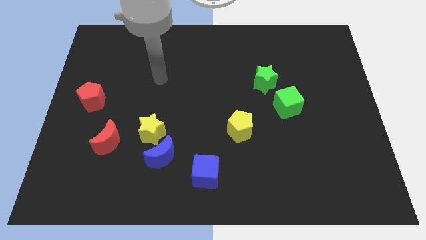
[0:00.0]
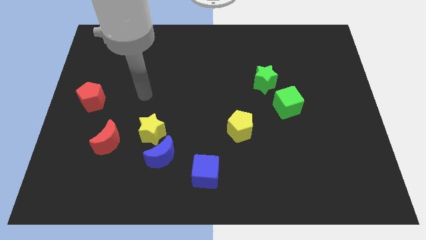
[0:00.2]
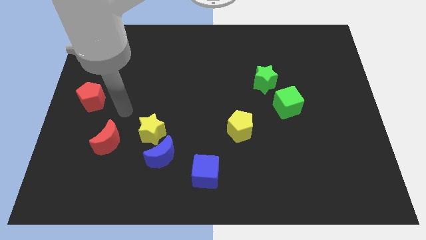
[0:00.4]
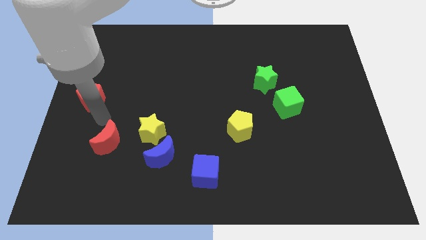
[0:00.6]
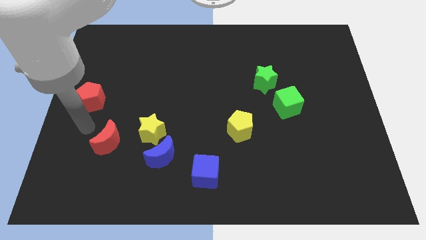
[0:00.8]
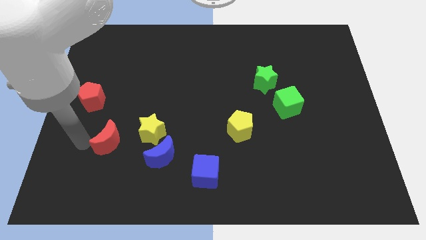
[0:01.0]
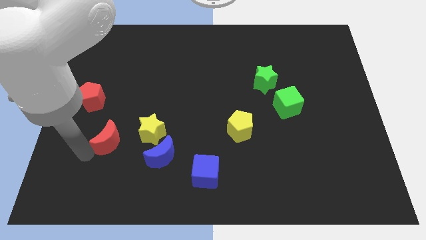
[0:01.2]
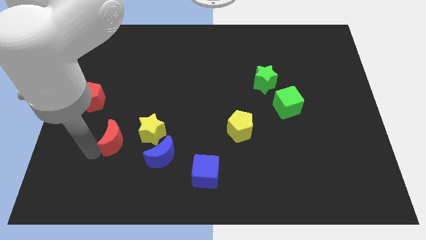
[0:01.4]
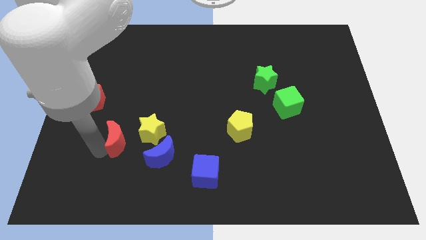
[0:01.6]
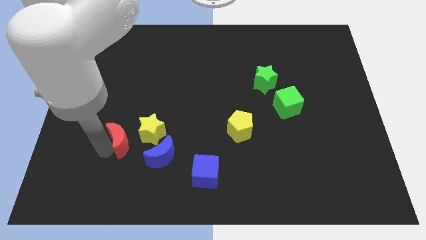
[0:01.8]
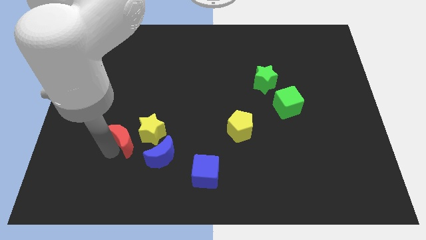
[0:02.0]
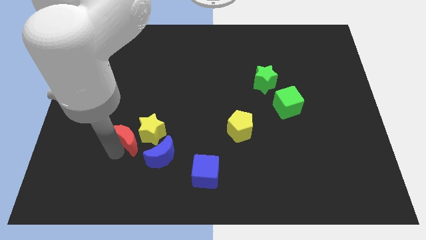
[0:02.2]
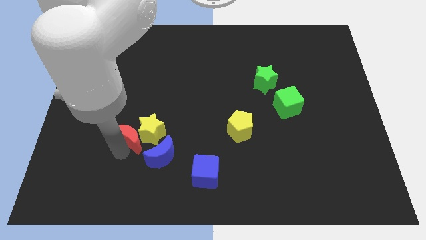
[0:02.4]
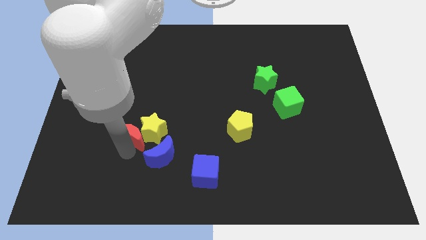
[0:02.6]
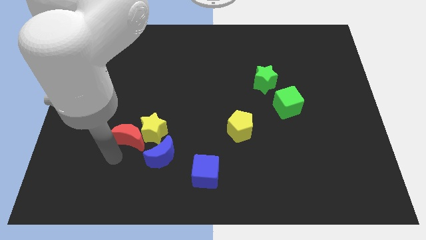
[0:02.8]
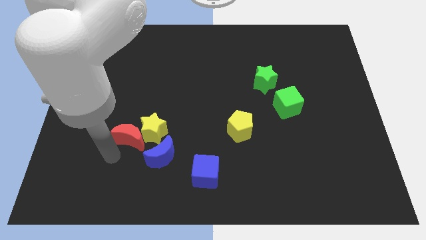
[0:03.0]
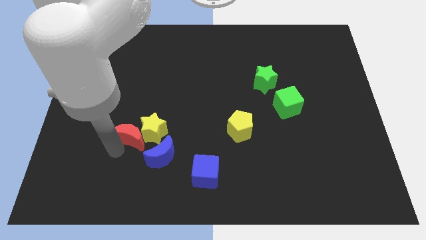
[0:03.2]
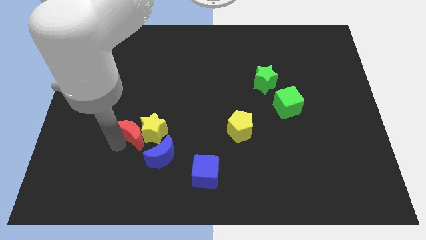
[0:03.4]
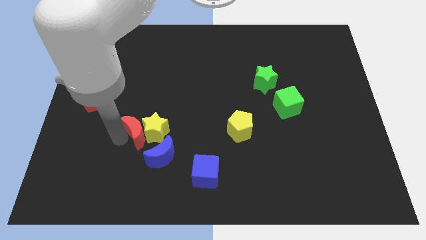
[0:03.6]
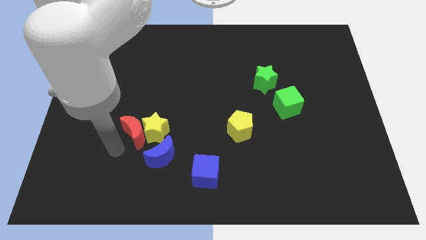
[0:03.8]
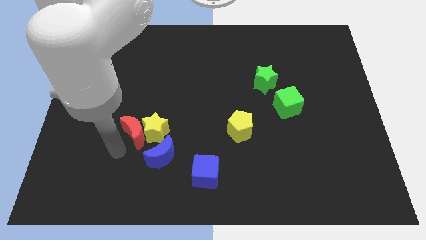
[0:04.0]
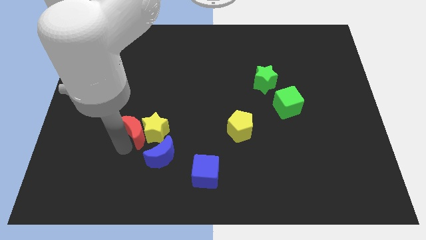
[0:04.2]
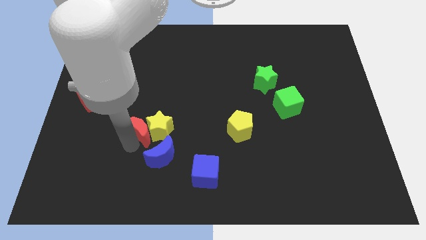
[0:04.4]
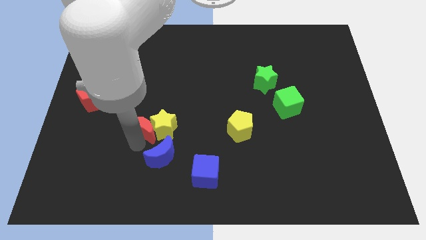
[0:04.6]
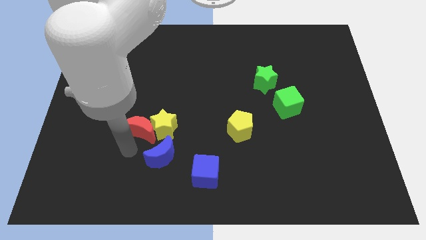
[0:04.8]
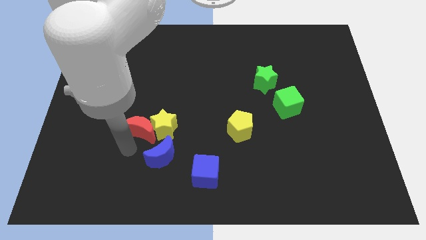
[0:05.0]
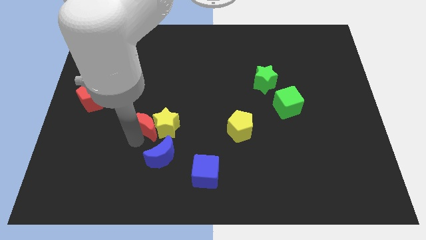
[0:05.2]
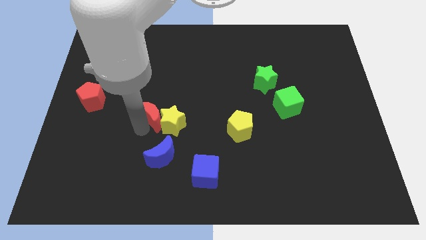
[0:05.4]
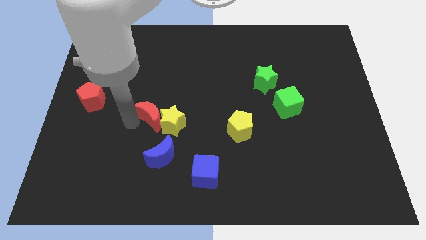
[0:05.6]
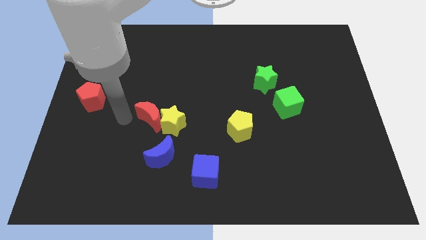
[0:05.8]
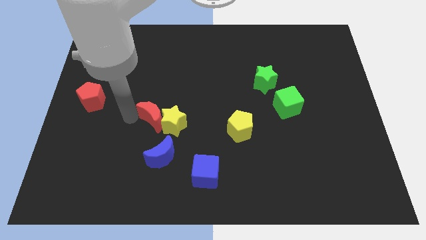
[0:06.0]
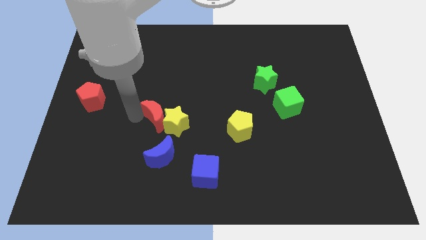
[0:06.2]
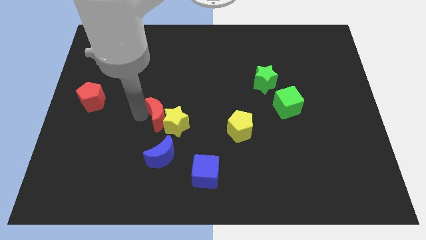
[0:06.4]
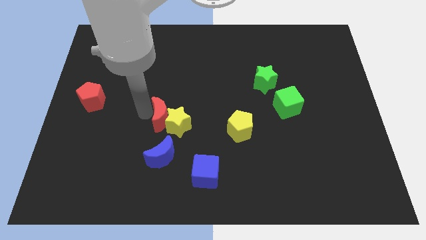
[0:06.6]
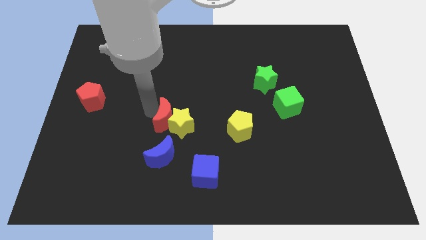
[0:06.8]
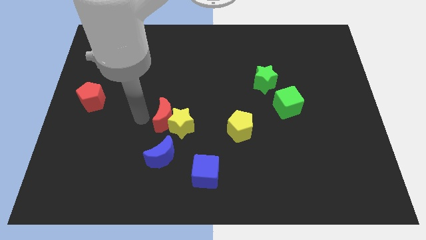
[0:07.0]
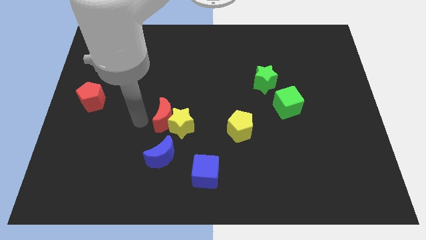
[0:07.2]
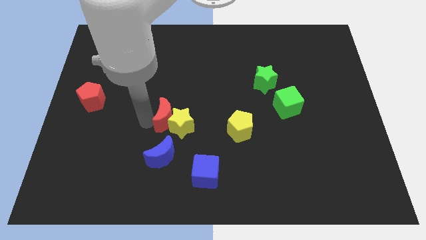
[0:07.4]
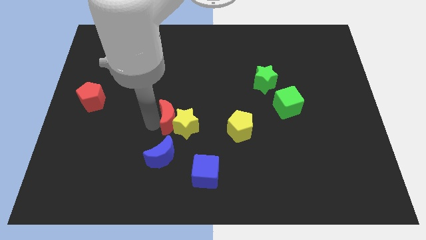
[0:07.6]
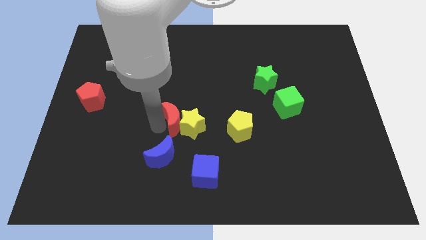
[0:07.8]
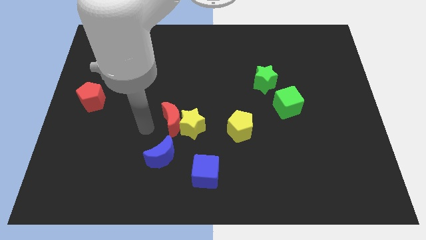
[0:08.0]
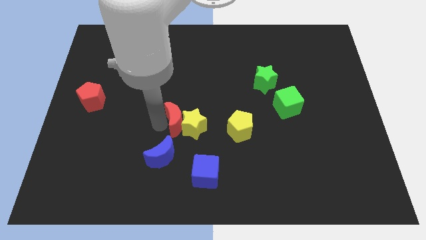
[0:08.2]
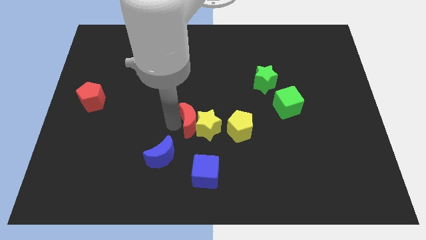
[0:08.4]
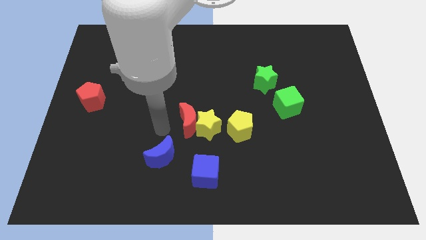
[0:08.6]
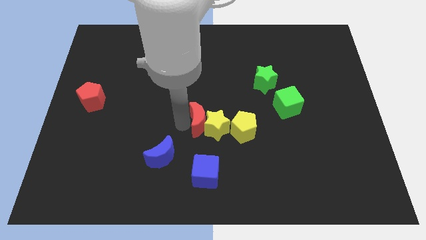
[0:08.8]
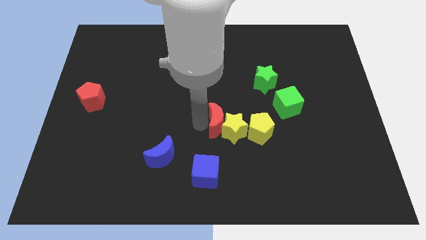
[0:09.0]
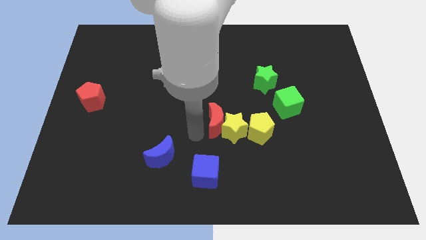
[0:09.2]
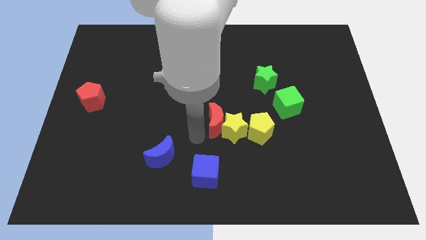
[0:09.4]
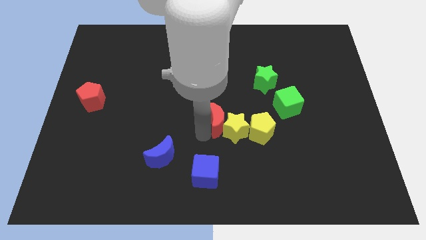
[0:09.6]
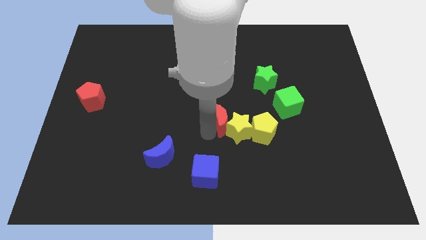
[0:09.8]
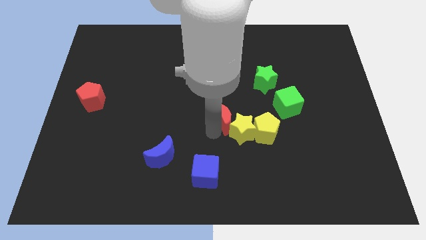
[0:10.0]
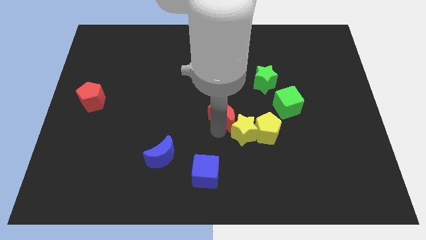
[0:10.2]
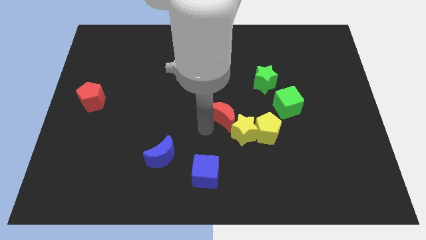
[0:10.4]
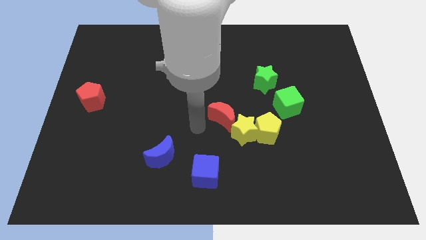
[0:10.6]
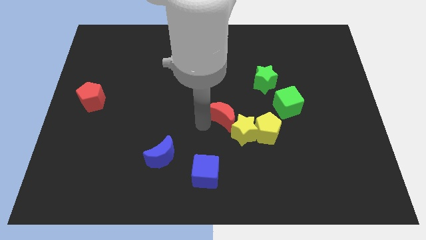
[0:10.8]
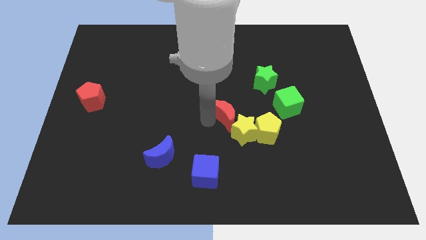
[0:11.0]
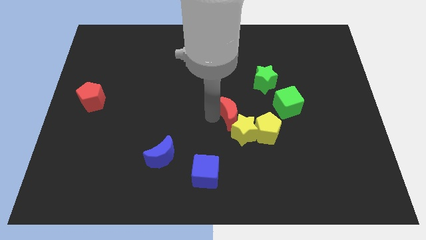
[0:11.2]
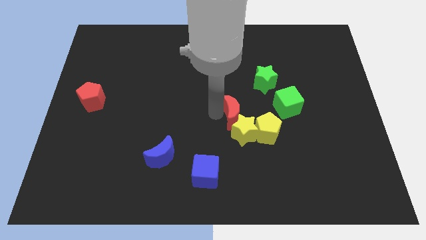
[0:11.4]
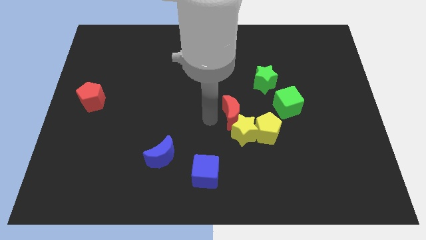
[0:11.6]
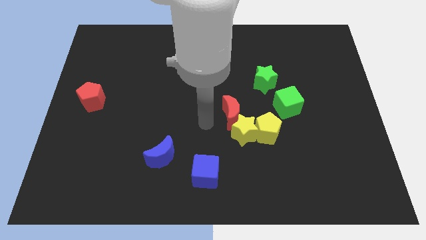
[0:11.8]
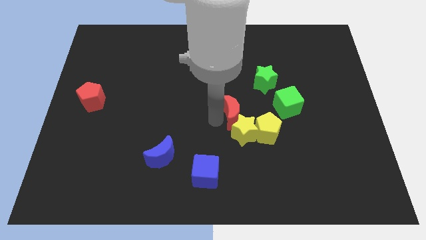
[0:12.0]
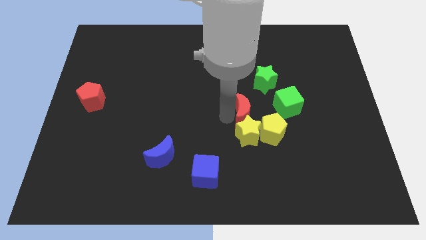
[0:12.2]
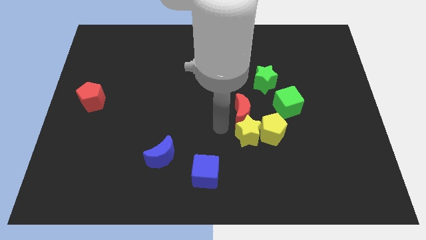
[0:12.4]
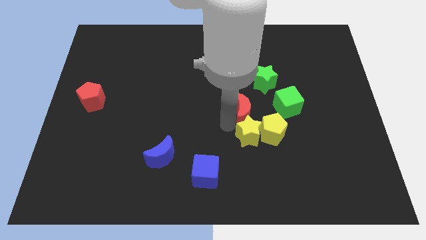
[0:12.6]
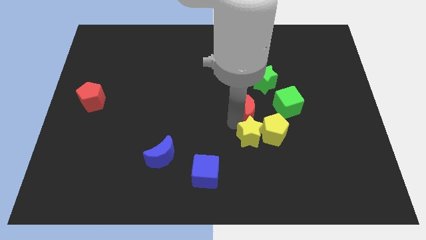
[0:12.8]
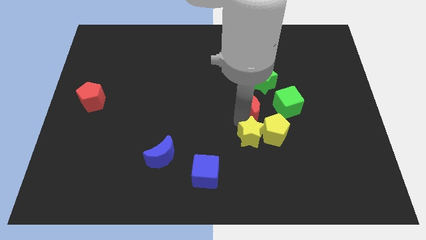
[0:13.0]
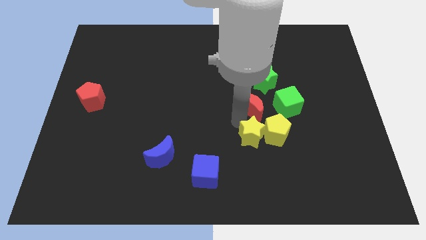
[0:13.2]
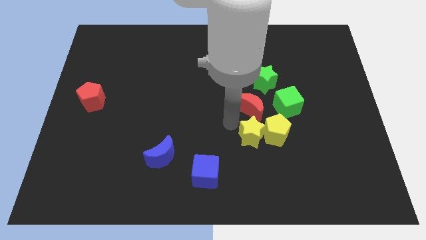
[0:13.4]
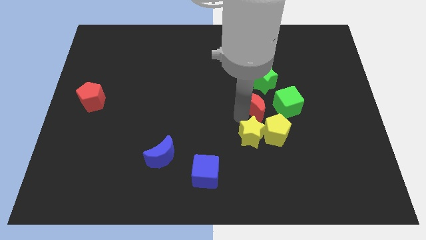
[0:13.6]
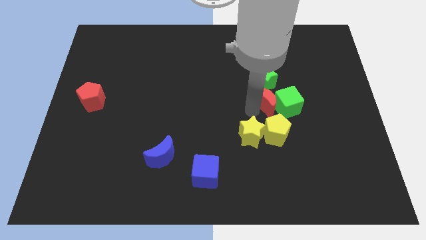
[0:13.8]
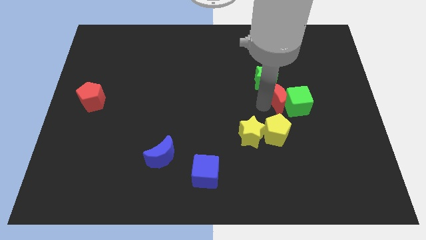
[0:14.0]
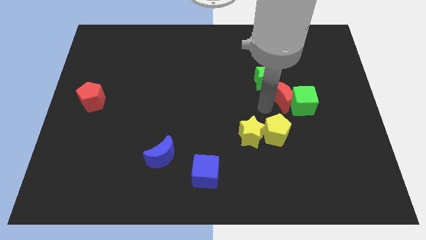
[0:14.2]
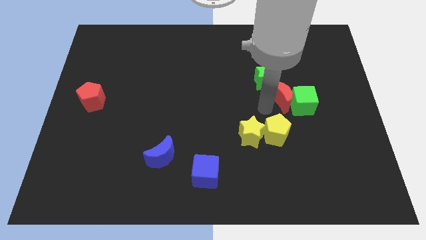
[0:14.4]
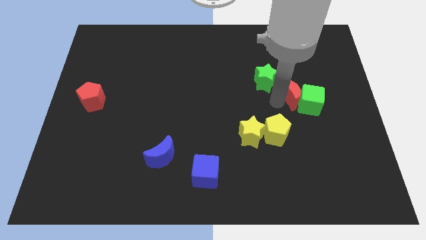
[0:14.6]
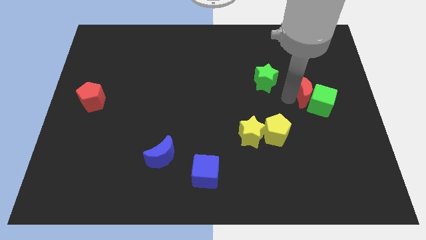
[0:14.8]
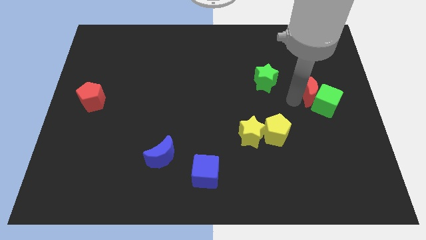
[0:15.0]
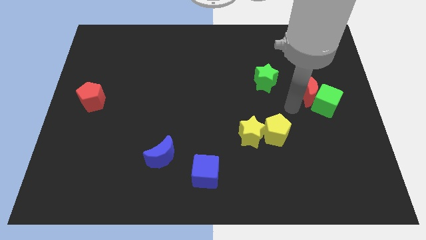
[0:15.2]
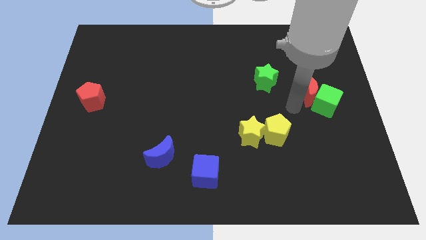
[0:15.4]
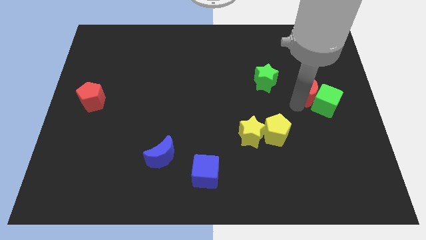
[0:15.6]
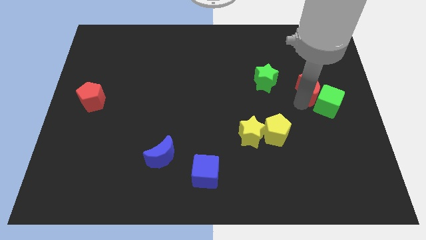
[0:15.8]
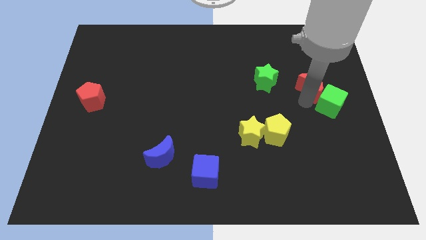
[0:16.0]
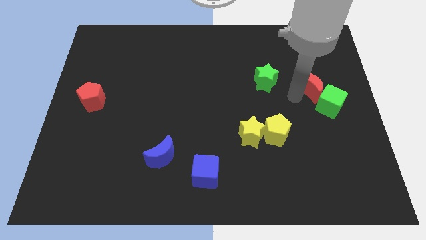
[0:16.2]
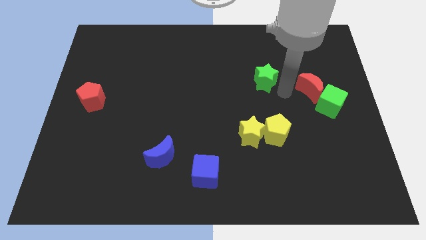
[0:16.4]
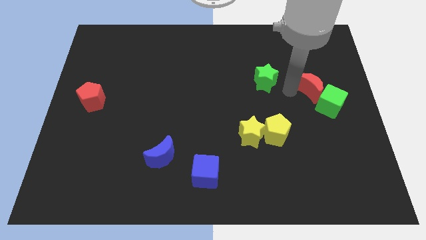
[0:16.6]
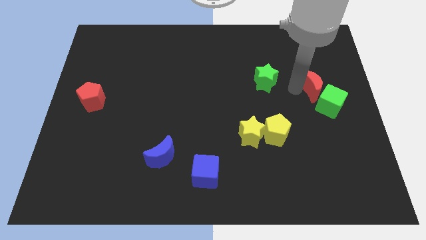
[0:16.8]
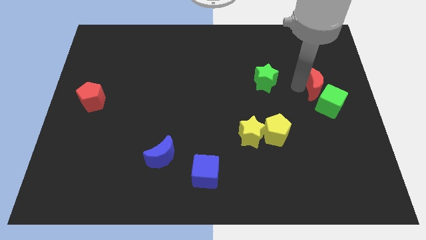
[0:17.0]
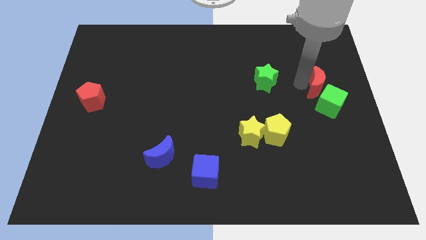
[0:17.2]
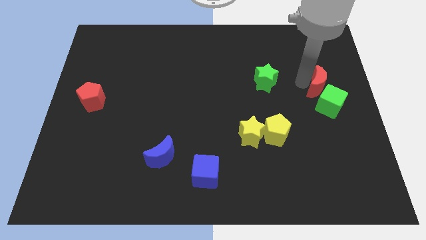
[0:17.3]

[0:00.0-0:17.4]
push the red moon to the right side of the board
